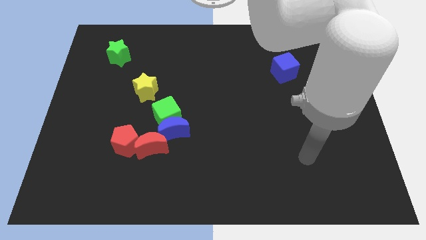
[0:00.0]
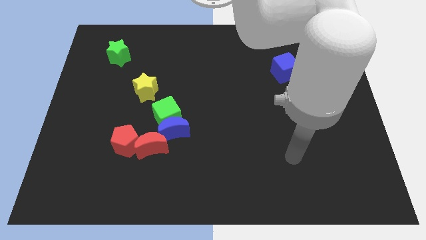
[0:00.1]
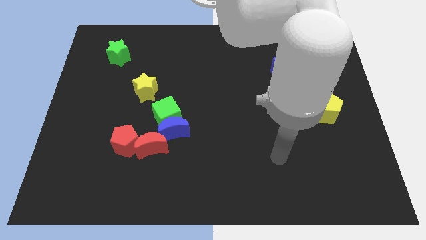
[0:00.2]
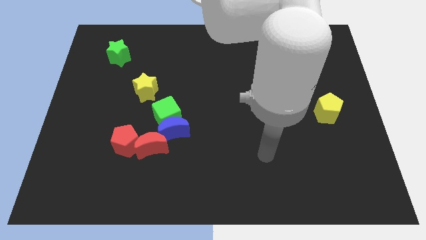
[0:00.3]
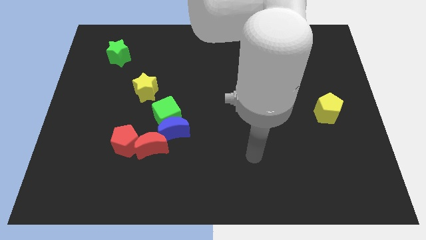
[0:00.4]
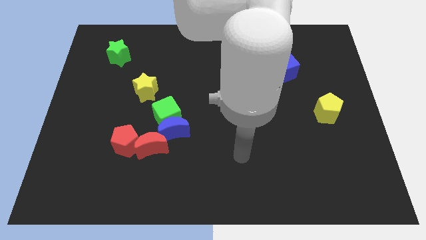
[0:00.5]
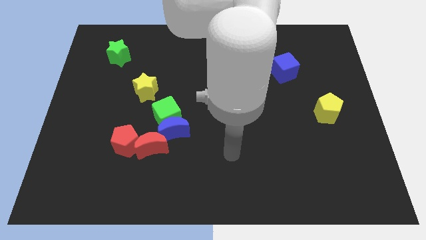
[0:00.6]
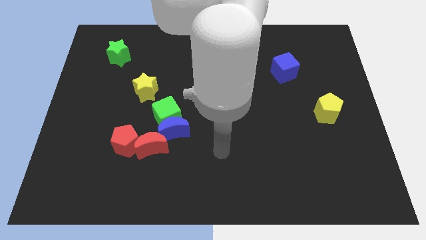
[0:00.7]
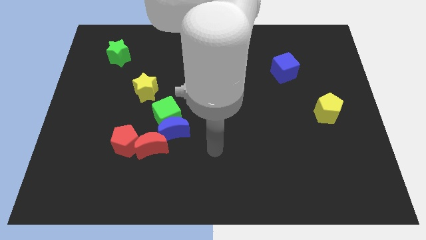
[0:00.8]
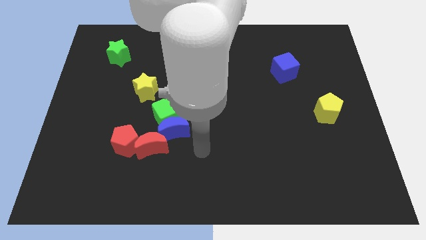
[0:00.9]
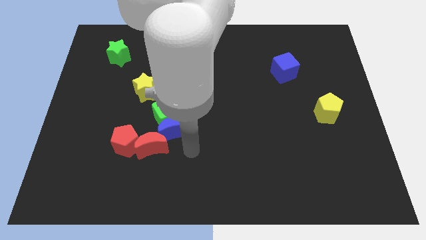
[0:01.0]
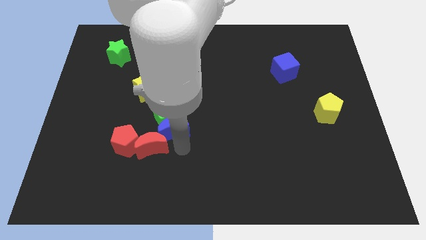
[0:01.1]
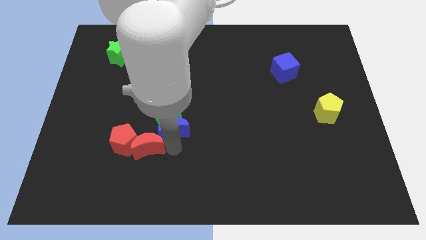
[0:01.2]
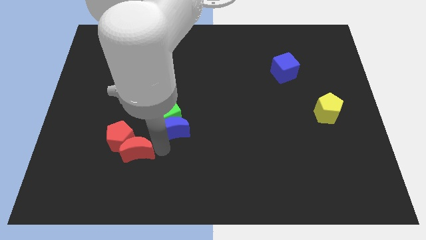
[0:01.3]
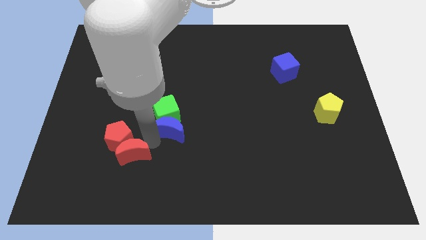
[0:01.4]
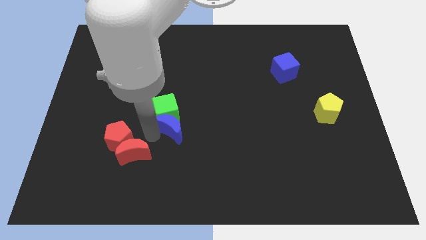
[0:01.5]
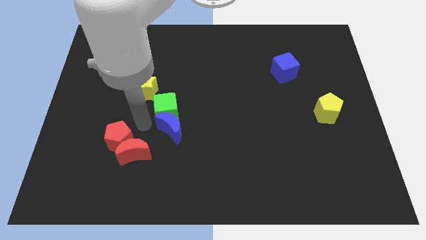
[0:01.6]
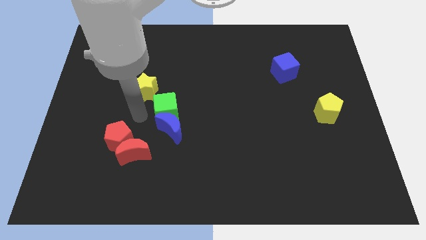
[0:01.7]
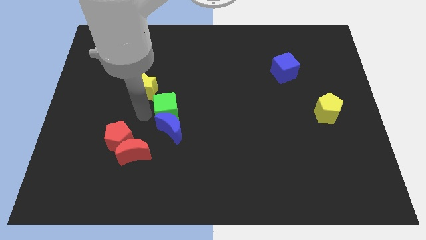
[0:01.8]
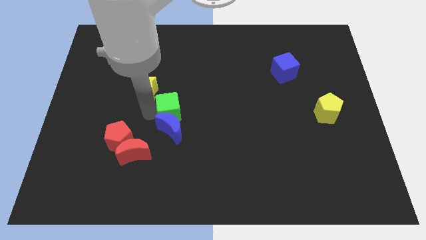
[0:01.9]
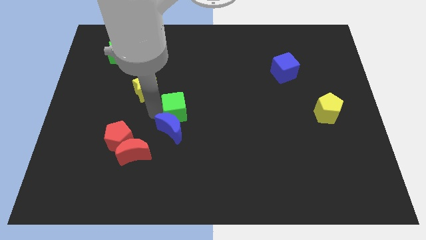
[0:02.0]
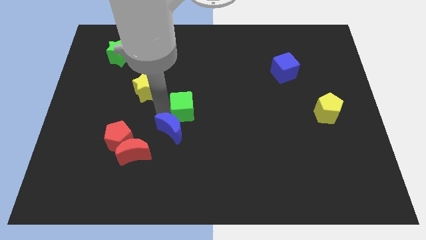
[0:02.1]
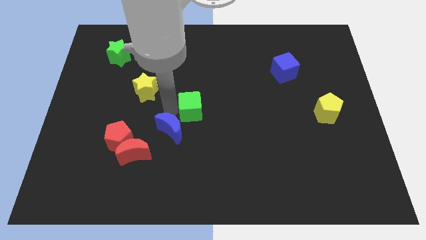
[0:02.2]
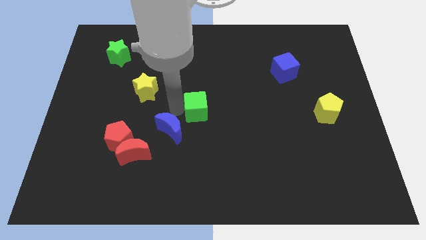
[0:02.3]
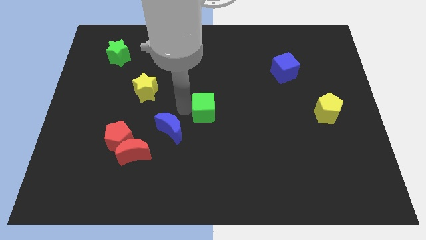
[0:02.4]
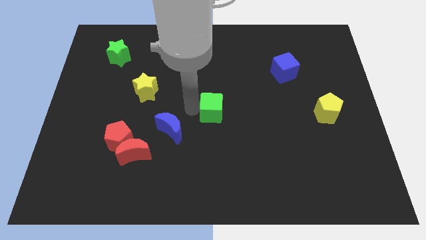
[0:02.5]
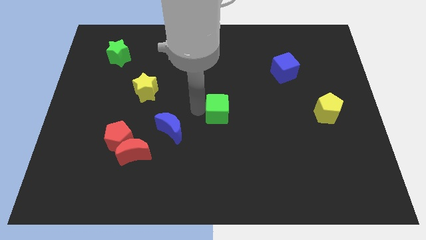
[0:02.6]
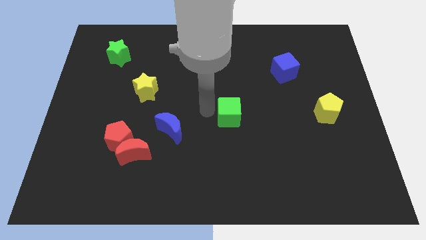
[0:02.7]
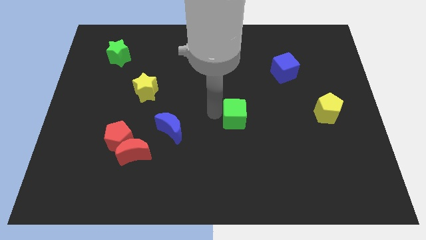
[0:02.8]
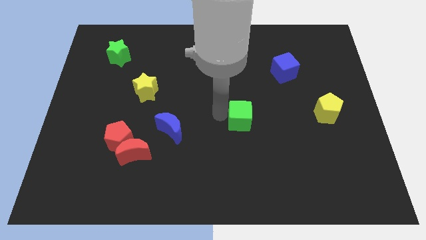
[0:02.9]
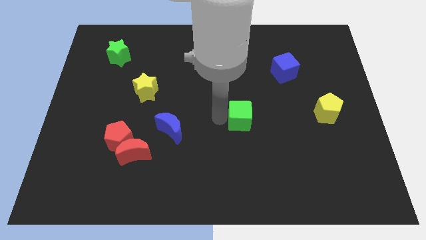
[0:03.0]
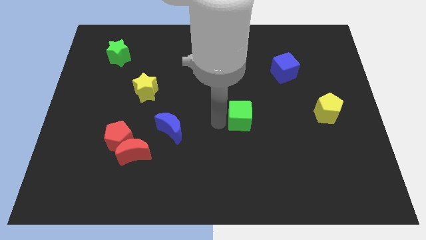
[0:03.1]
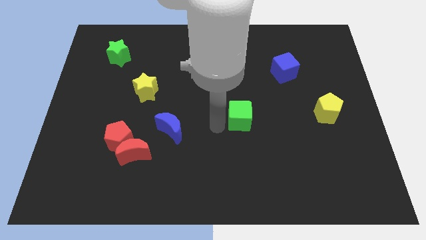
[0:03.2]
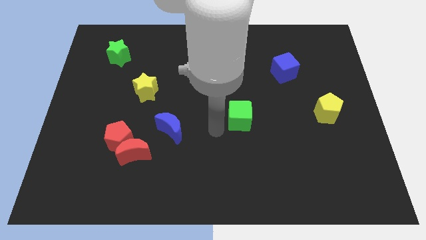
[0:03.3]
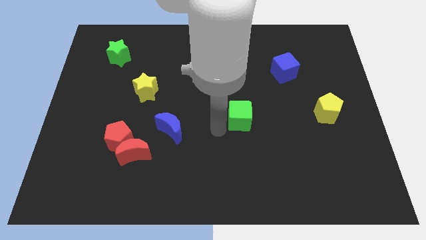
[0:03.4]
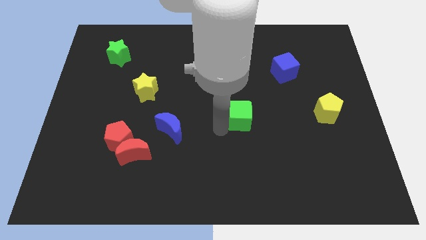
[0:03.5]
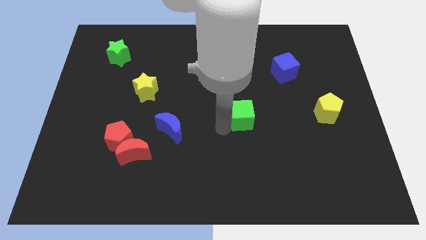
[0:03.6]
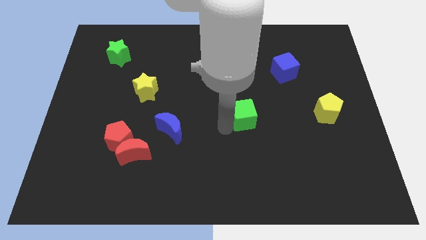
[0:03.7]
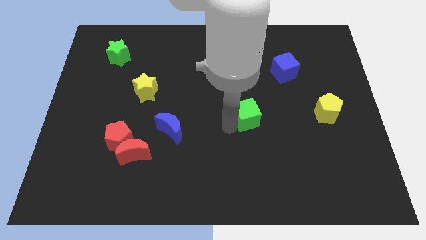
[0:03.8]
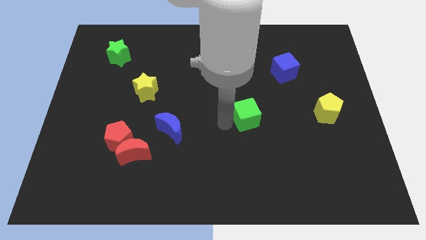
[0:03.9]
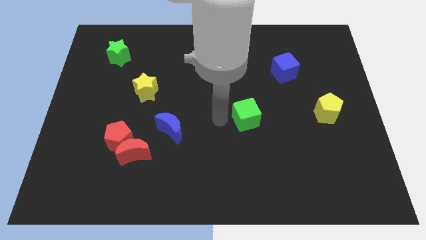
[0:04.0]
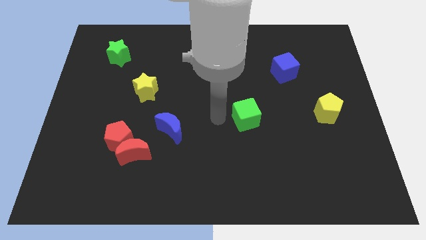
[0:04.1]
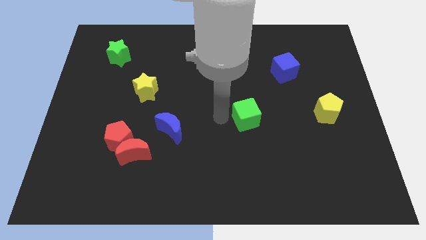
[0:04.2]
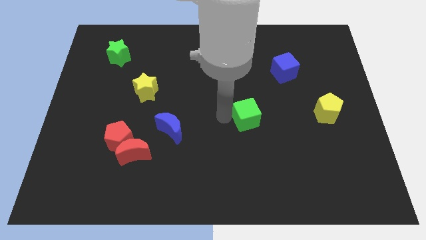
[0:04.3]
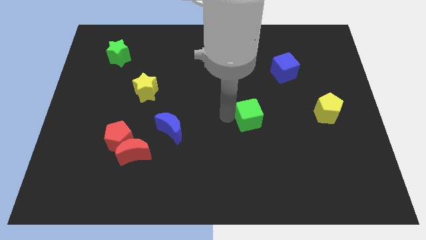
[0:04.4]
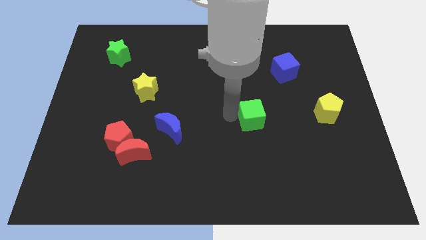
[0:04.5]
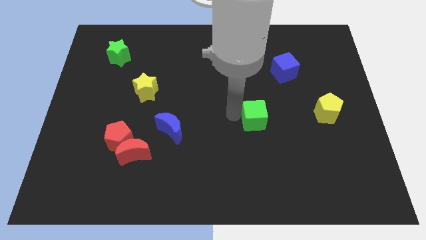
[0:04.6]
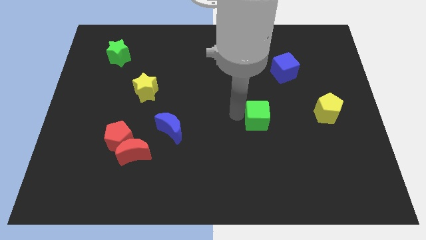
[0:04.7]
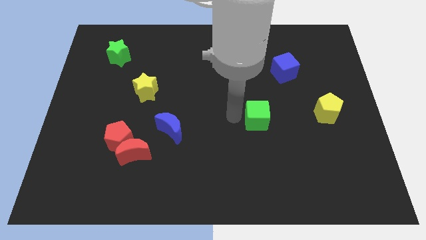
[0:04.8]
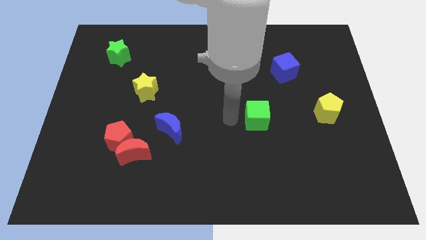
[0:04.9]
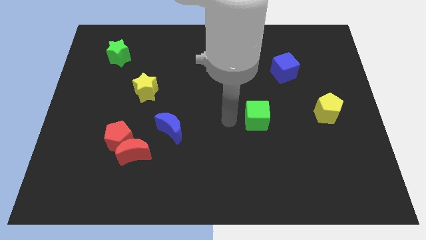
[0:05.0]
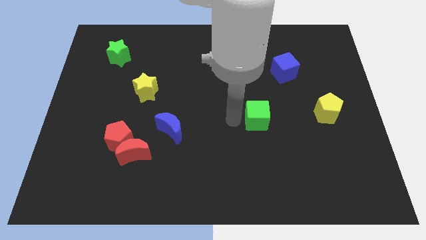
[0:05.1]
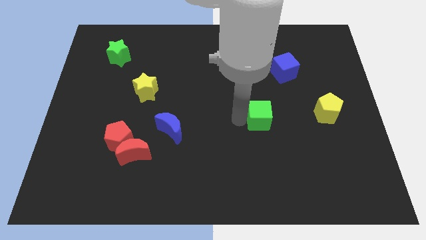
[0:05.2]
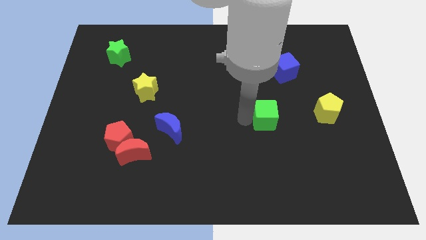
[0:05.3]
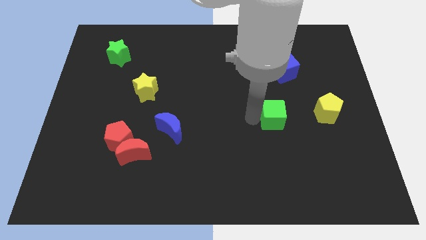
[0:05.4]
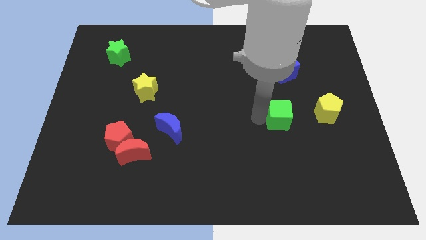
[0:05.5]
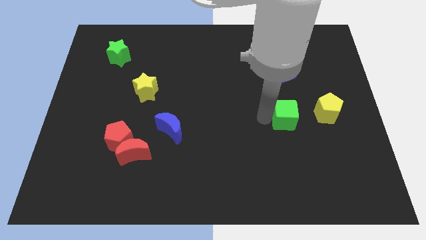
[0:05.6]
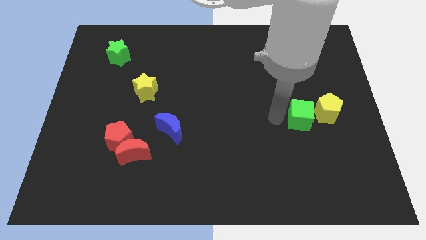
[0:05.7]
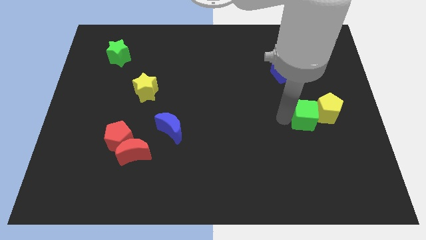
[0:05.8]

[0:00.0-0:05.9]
move the green cube to the yellow pentagon
